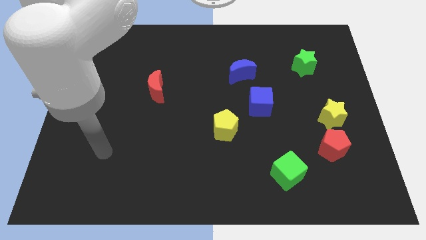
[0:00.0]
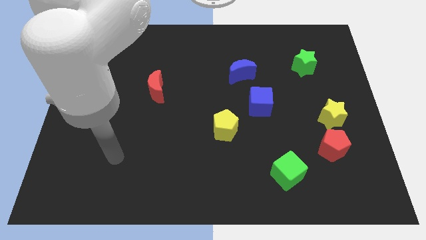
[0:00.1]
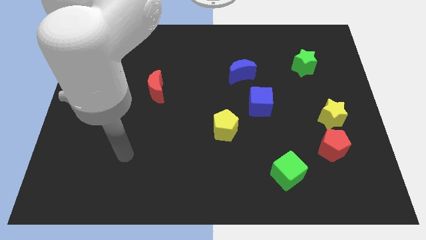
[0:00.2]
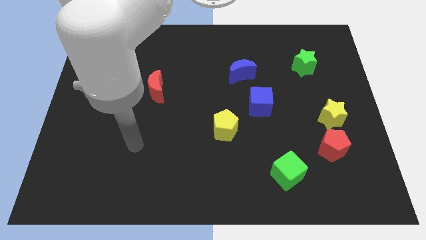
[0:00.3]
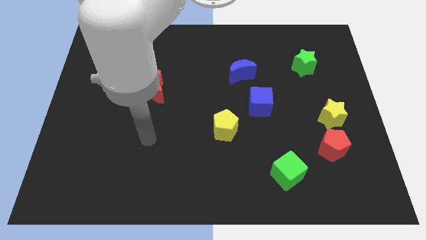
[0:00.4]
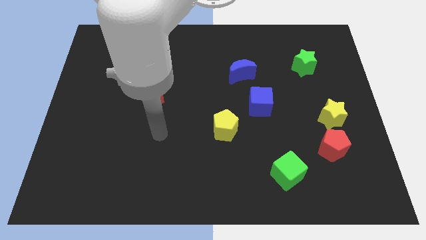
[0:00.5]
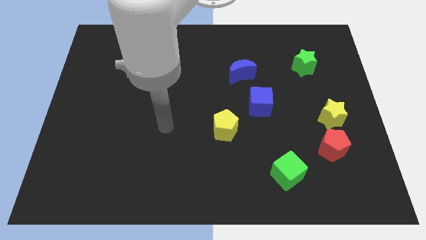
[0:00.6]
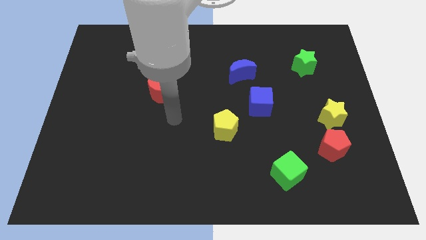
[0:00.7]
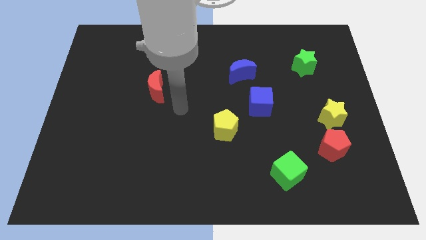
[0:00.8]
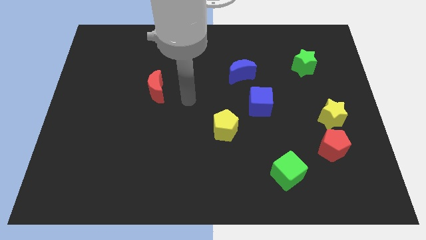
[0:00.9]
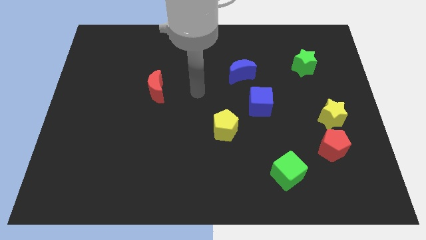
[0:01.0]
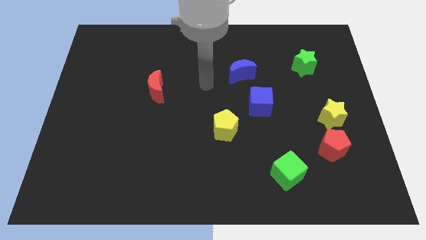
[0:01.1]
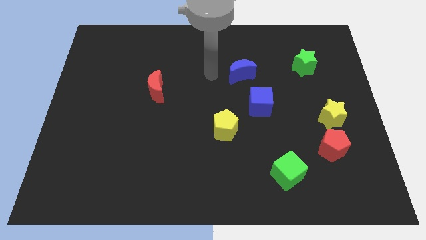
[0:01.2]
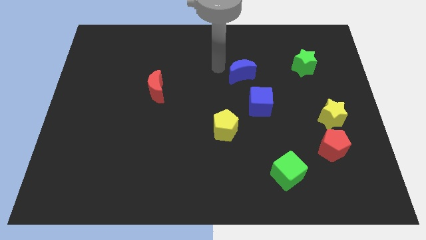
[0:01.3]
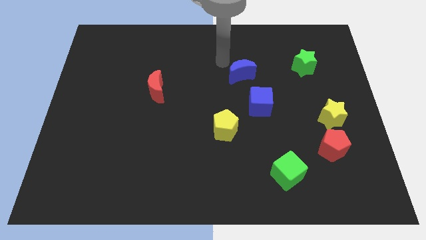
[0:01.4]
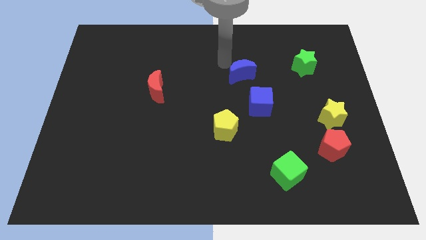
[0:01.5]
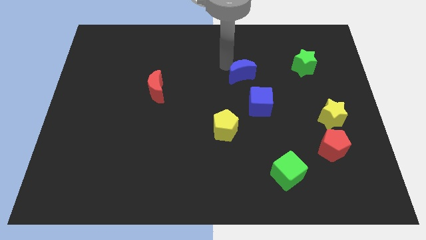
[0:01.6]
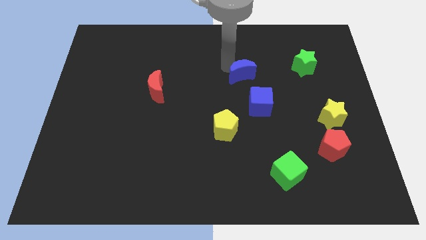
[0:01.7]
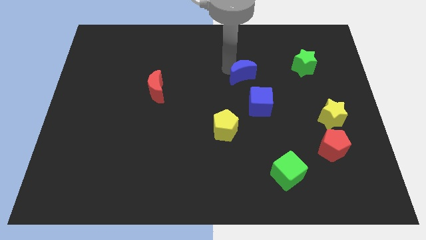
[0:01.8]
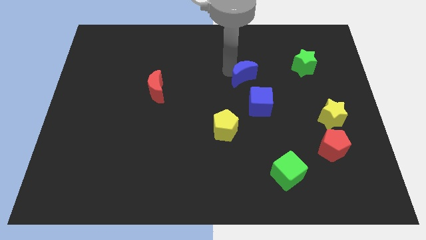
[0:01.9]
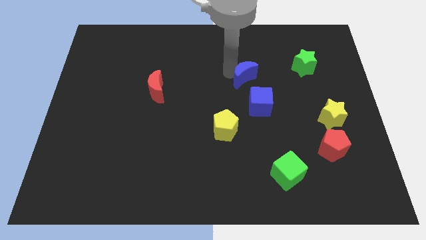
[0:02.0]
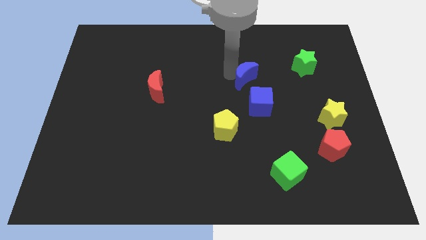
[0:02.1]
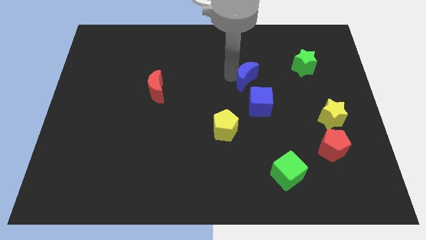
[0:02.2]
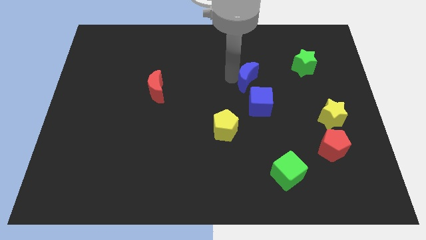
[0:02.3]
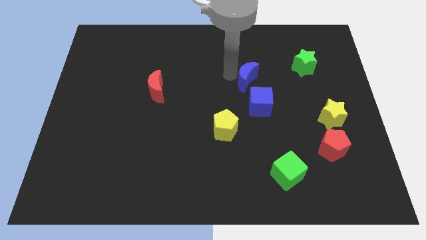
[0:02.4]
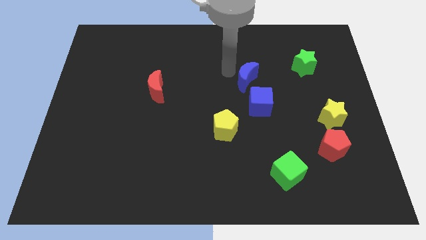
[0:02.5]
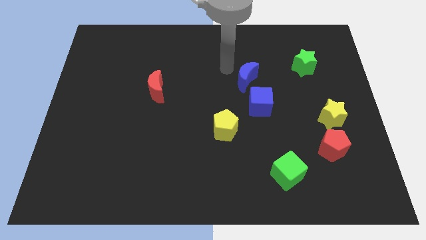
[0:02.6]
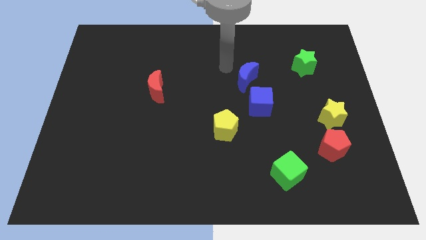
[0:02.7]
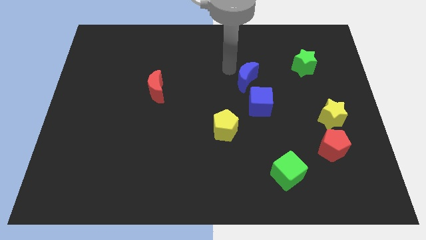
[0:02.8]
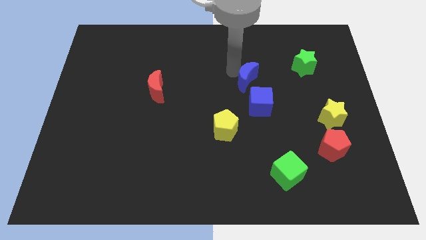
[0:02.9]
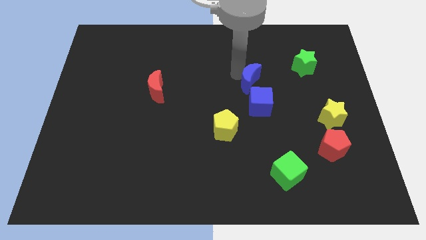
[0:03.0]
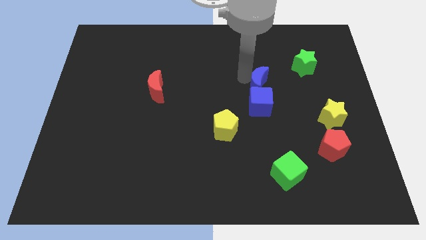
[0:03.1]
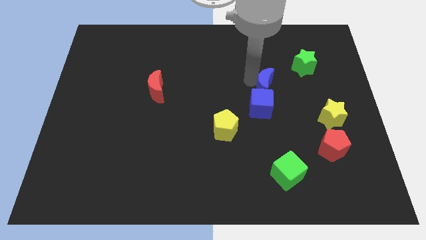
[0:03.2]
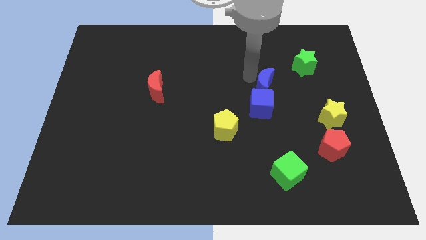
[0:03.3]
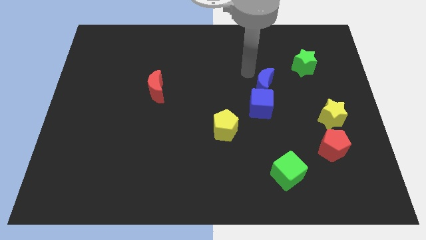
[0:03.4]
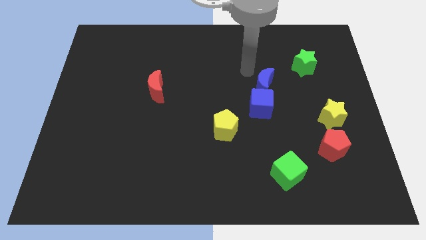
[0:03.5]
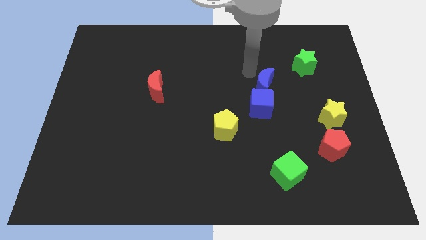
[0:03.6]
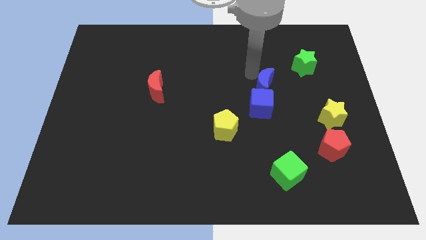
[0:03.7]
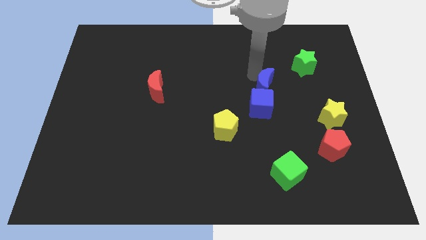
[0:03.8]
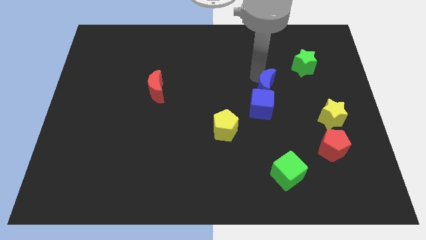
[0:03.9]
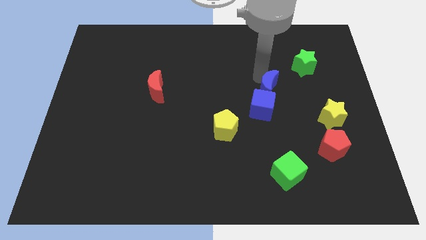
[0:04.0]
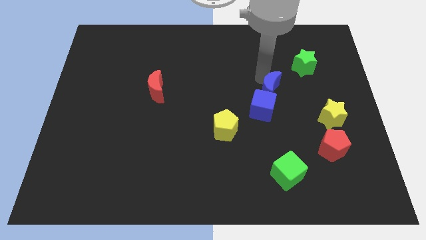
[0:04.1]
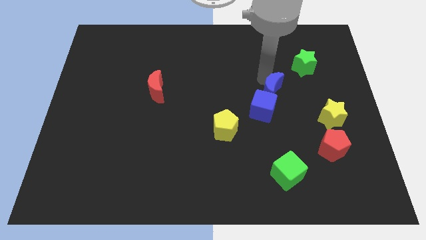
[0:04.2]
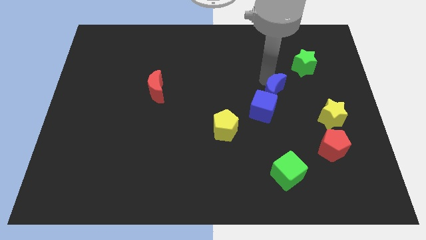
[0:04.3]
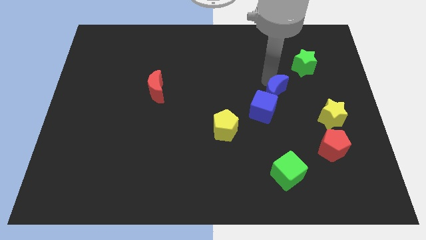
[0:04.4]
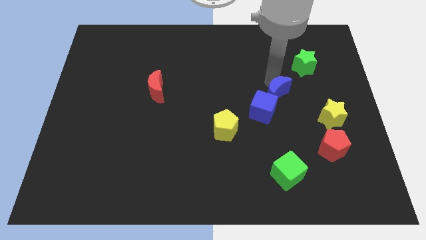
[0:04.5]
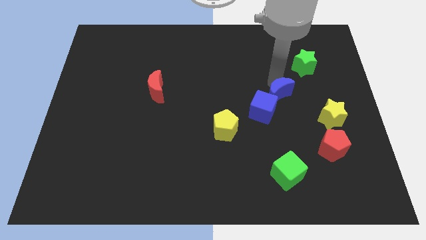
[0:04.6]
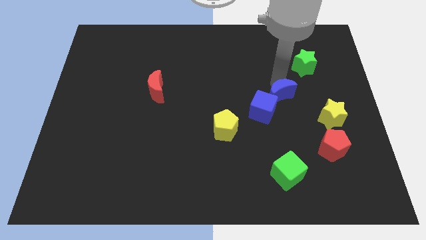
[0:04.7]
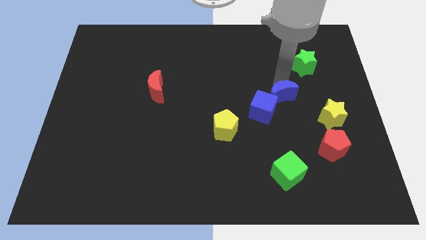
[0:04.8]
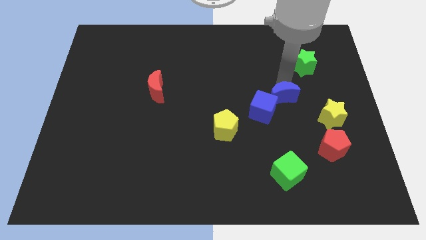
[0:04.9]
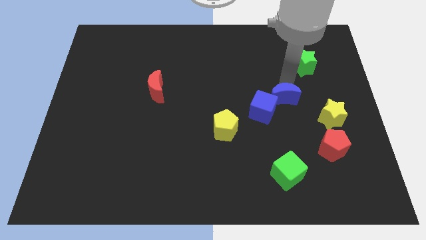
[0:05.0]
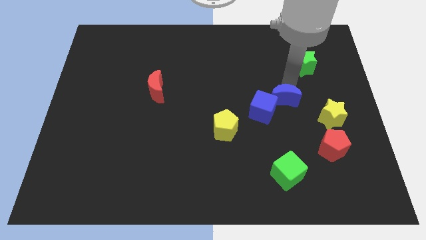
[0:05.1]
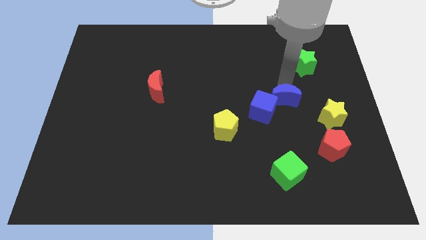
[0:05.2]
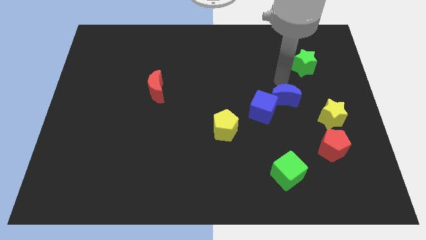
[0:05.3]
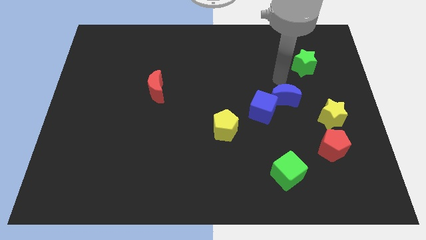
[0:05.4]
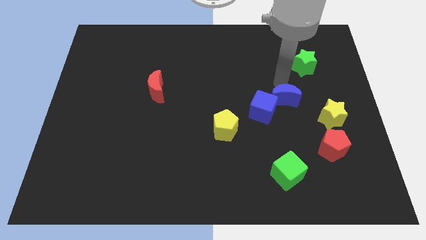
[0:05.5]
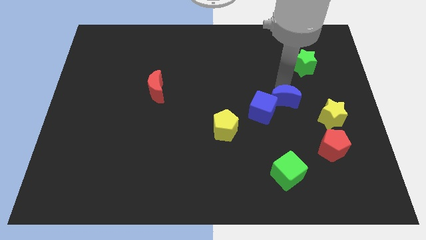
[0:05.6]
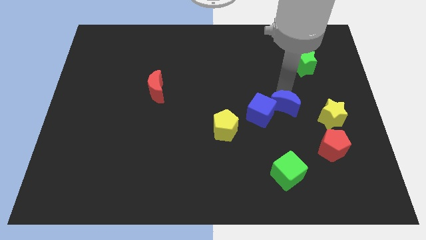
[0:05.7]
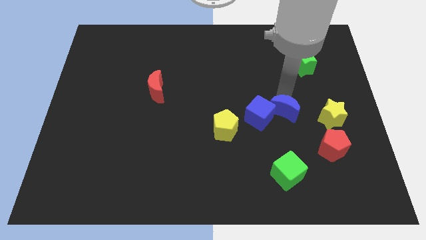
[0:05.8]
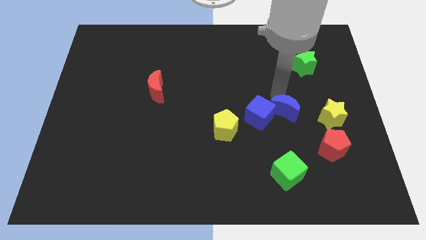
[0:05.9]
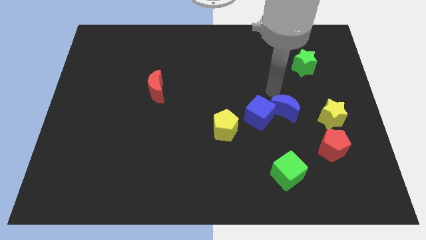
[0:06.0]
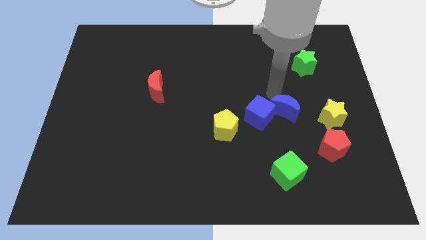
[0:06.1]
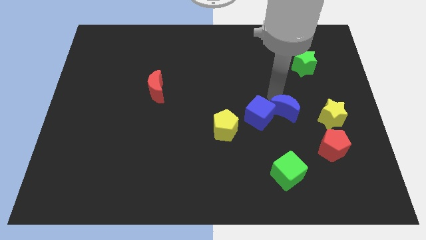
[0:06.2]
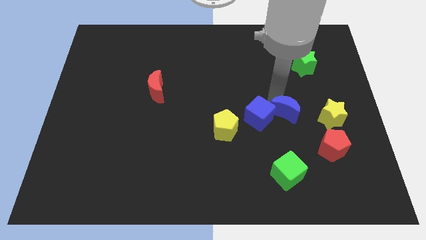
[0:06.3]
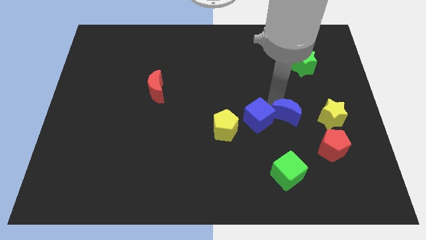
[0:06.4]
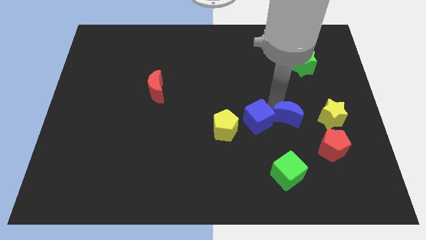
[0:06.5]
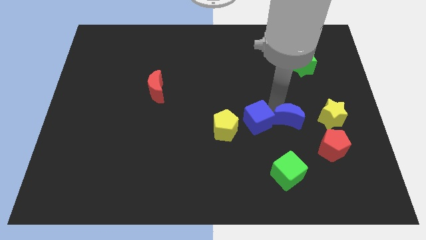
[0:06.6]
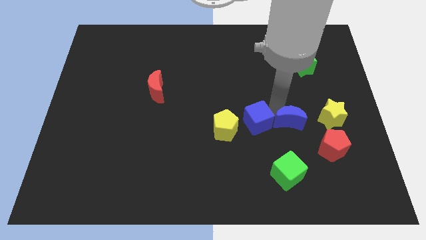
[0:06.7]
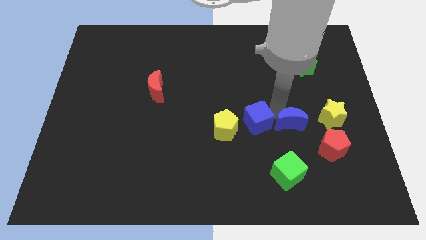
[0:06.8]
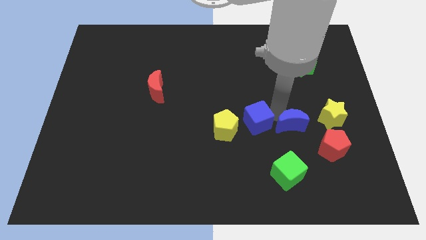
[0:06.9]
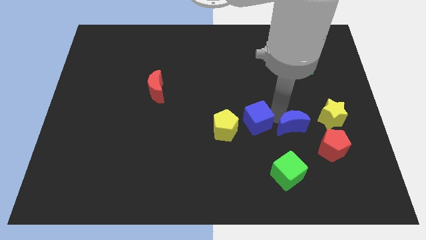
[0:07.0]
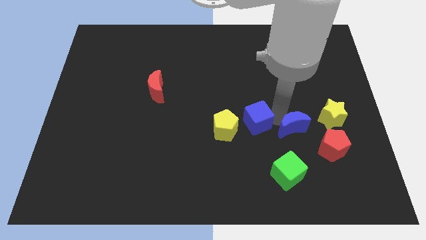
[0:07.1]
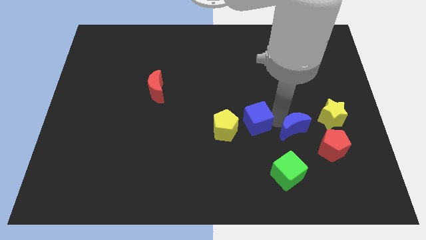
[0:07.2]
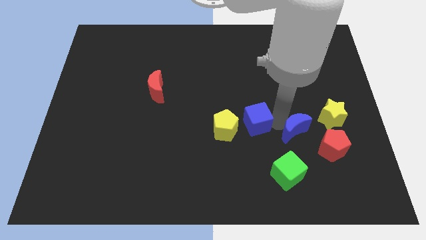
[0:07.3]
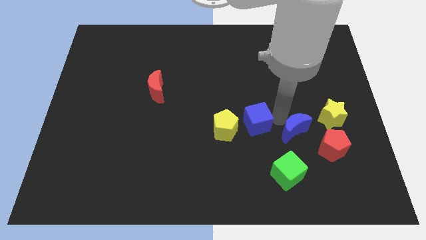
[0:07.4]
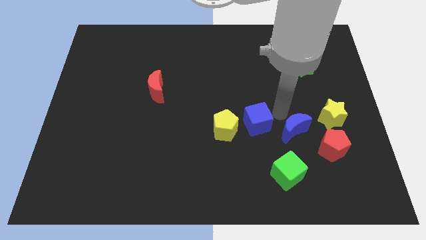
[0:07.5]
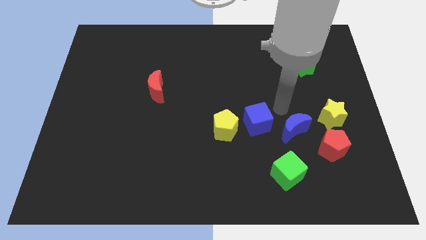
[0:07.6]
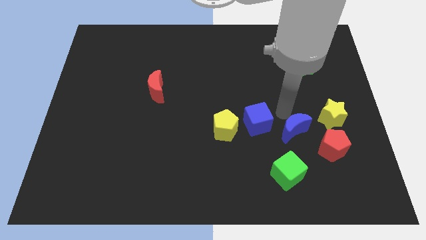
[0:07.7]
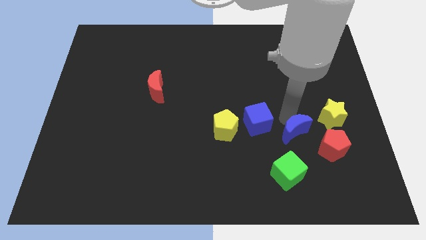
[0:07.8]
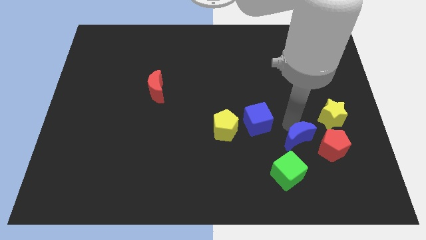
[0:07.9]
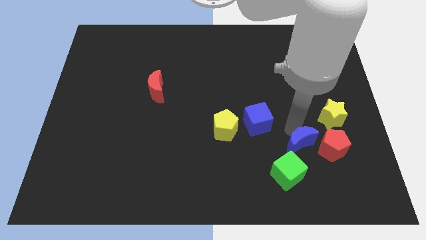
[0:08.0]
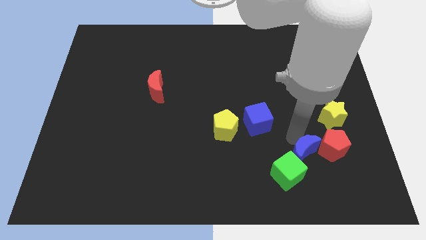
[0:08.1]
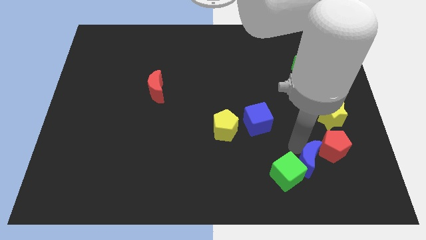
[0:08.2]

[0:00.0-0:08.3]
put the blue moon right of the green cube
